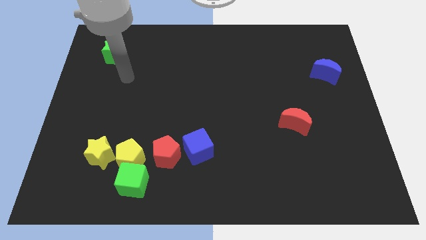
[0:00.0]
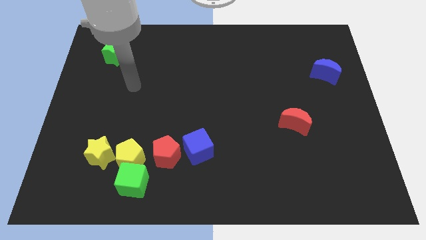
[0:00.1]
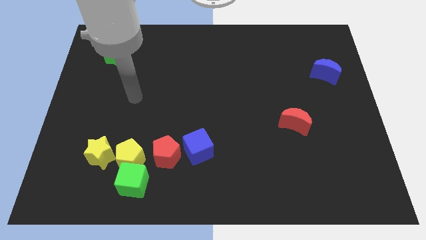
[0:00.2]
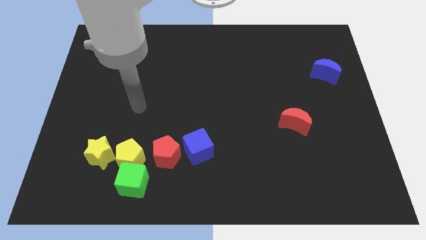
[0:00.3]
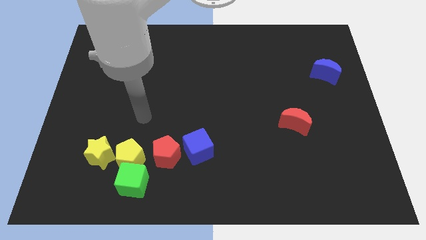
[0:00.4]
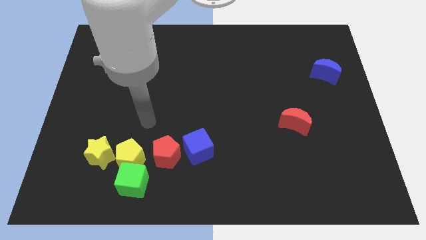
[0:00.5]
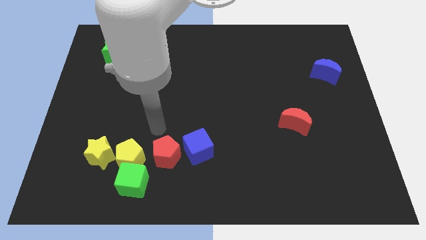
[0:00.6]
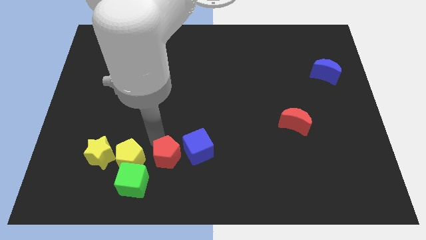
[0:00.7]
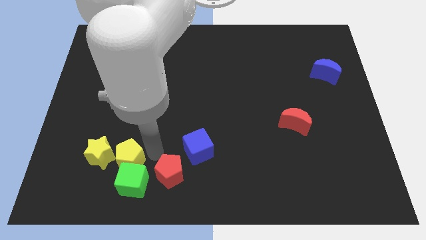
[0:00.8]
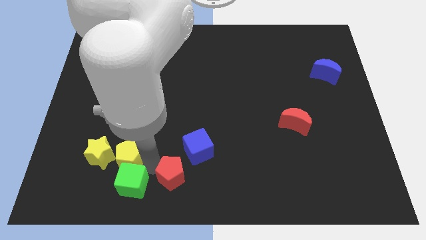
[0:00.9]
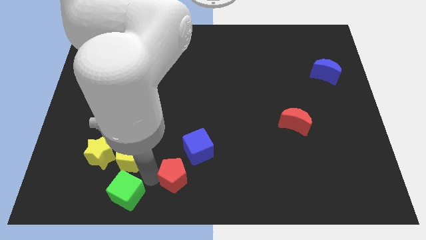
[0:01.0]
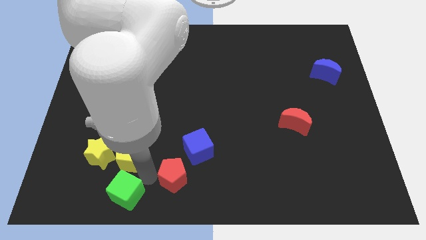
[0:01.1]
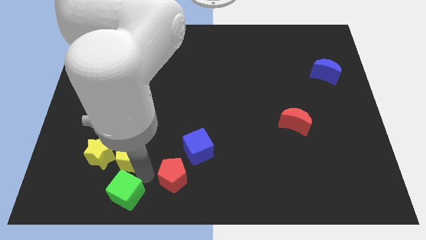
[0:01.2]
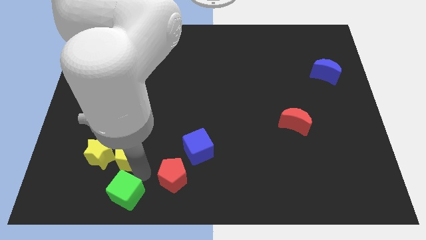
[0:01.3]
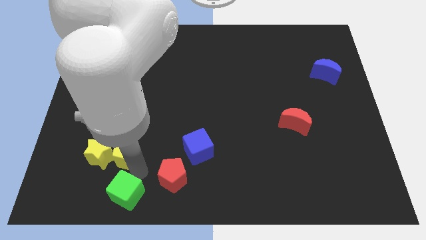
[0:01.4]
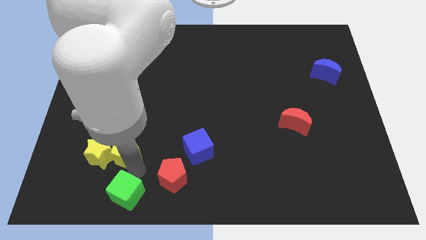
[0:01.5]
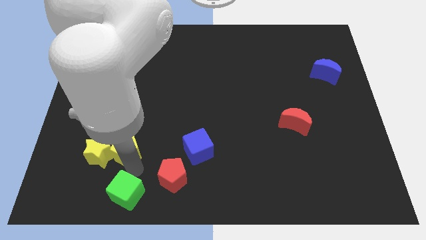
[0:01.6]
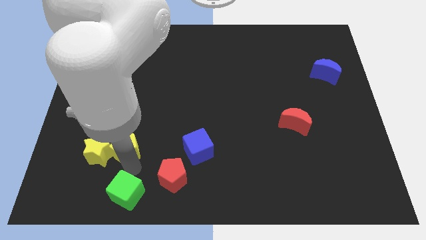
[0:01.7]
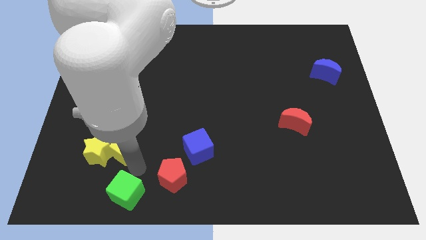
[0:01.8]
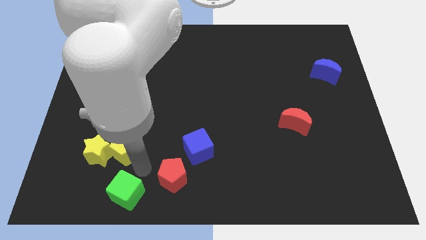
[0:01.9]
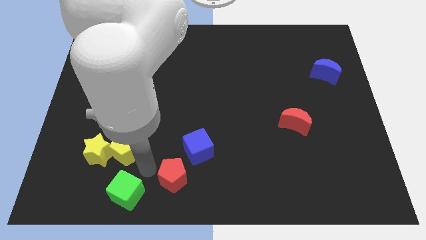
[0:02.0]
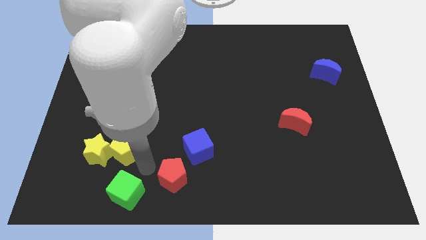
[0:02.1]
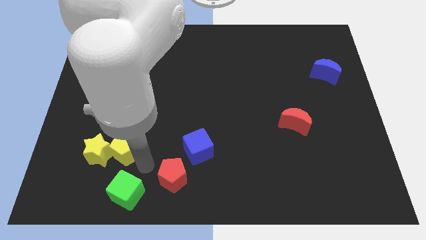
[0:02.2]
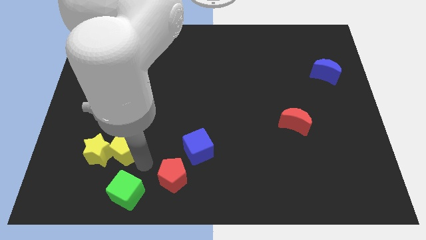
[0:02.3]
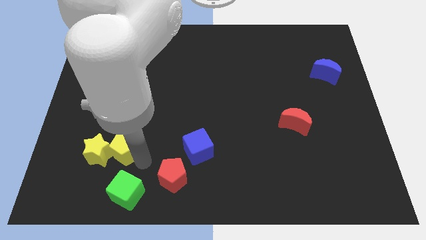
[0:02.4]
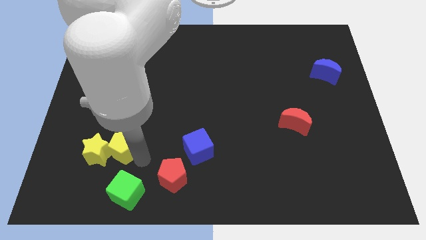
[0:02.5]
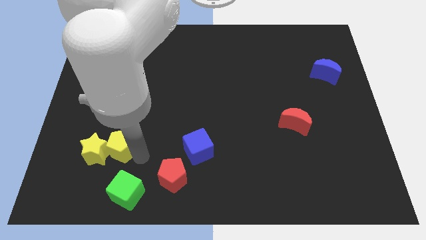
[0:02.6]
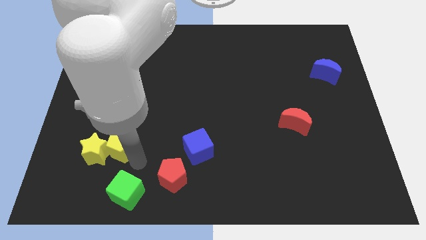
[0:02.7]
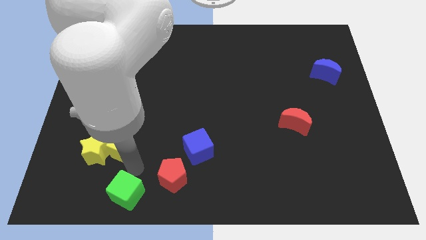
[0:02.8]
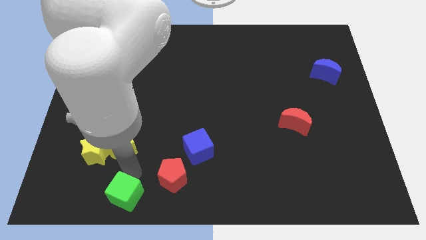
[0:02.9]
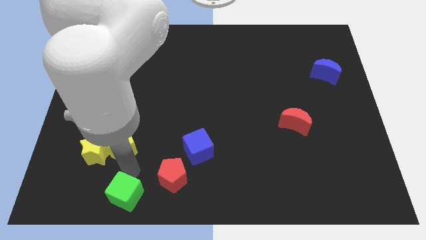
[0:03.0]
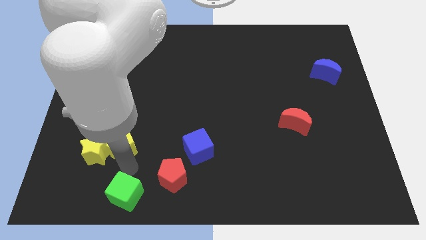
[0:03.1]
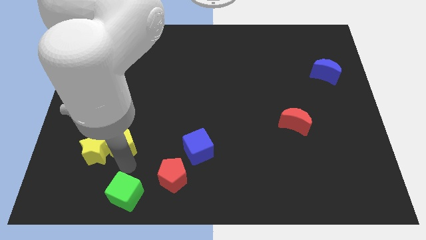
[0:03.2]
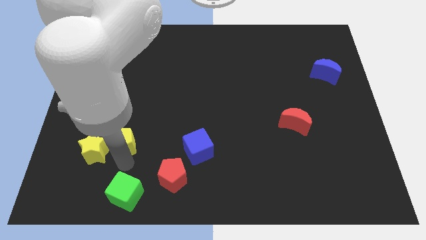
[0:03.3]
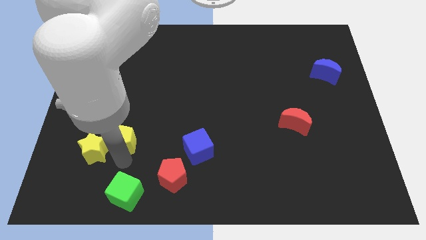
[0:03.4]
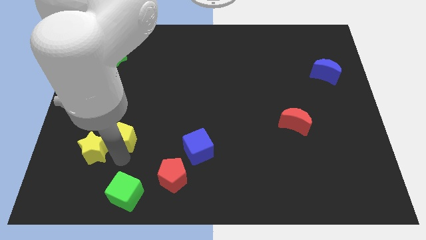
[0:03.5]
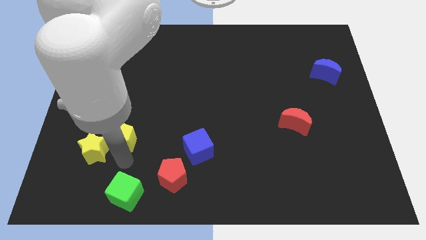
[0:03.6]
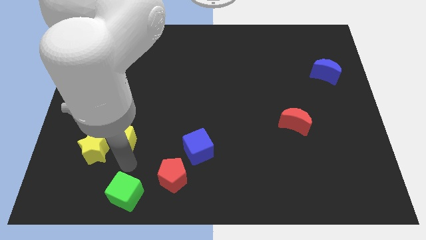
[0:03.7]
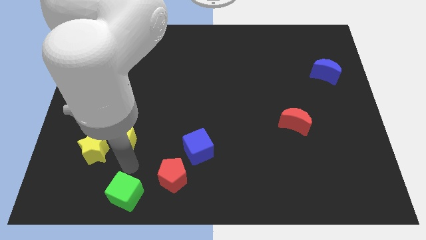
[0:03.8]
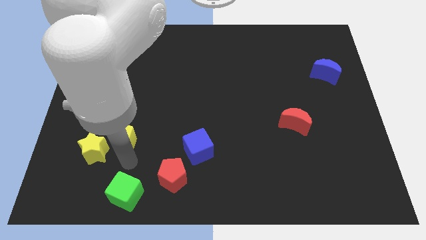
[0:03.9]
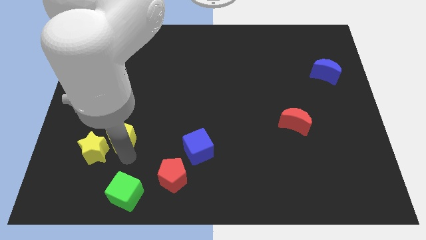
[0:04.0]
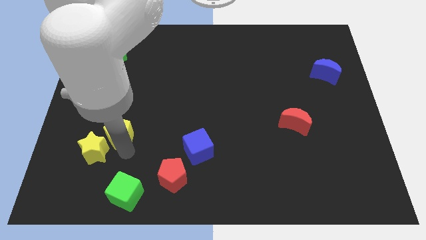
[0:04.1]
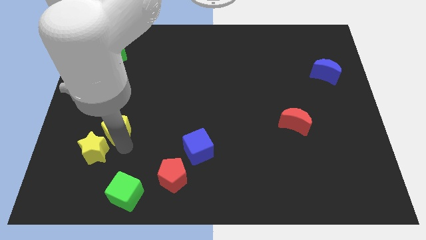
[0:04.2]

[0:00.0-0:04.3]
move the yellow pentagon away from the green cube, yellow star, and red pentagon

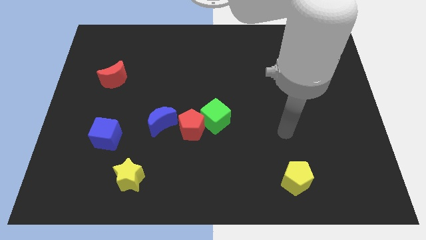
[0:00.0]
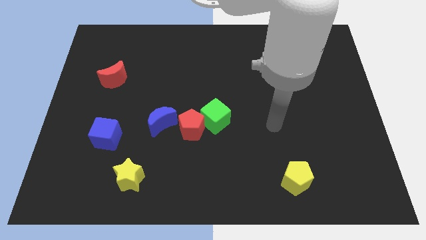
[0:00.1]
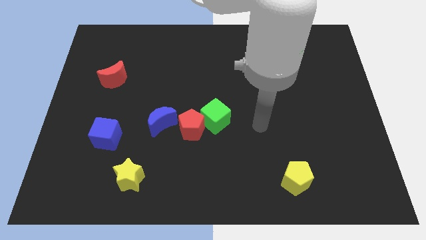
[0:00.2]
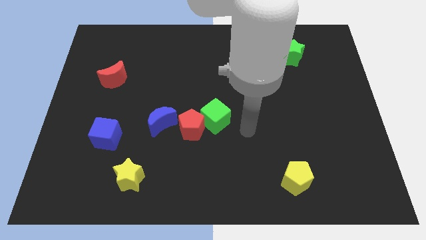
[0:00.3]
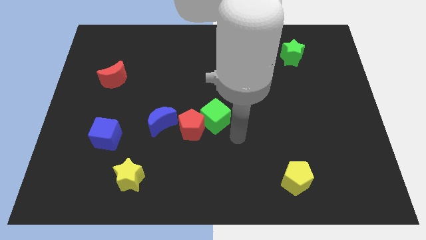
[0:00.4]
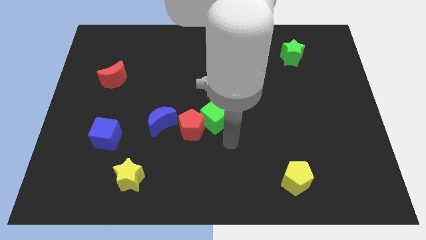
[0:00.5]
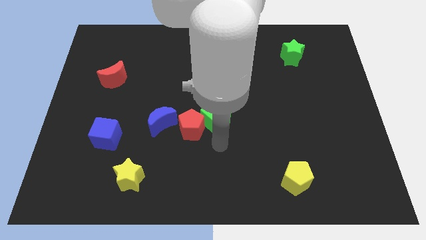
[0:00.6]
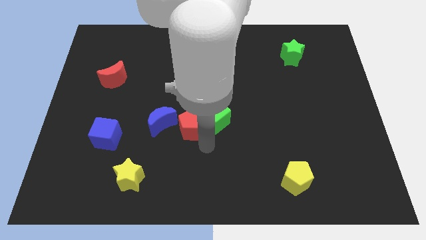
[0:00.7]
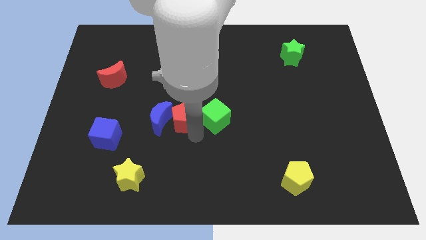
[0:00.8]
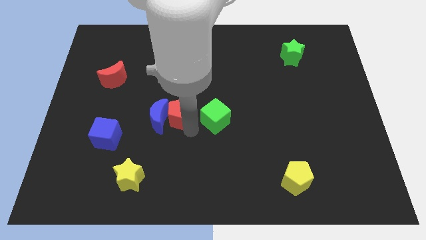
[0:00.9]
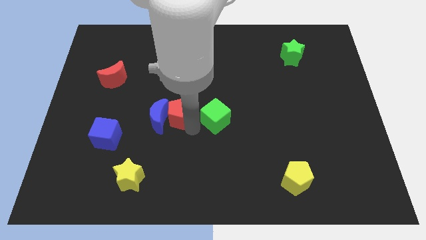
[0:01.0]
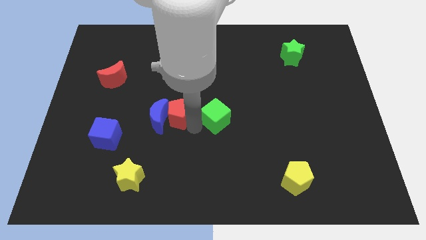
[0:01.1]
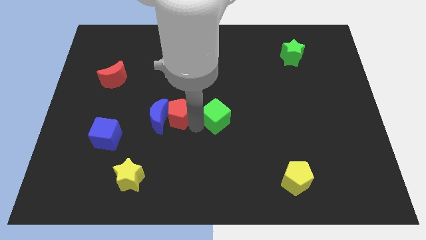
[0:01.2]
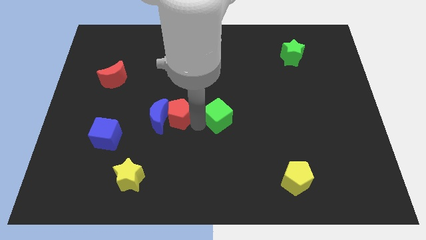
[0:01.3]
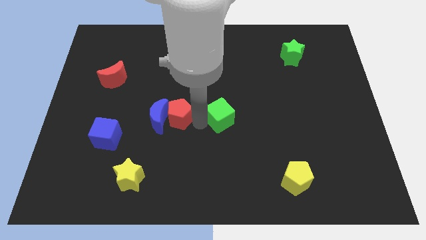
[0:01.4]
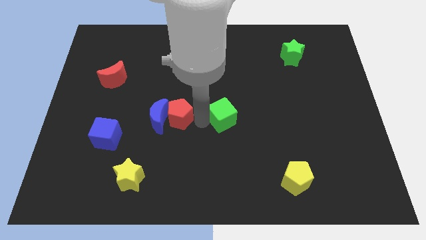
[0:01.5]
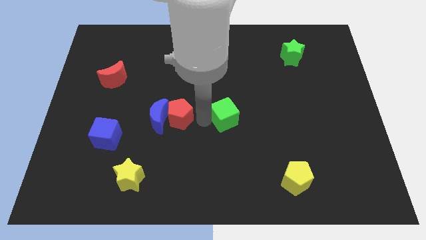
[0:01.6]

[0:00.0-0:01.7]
move the green cube away from the red pentagon

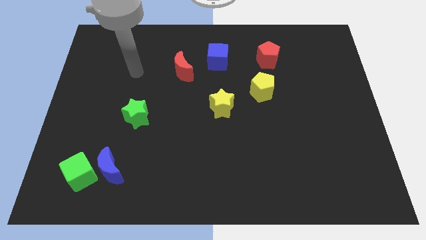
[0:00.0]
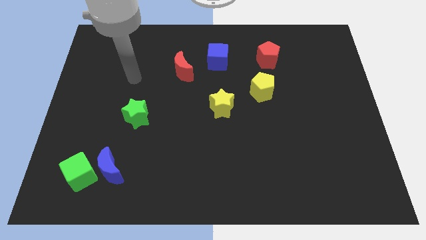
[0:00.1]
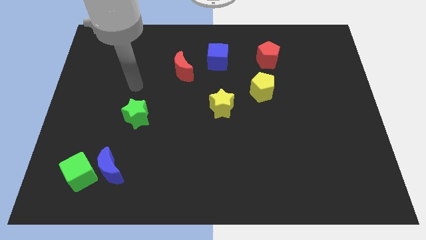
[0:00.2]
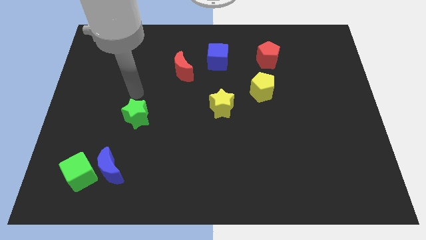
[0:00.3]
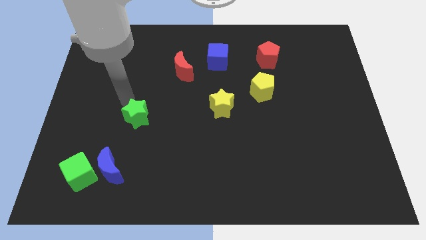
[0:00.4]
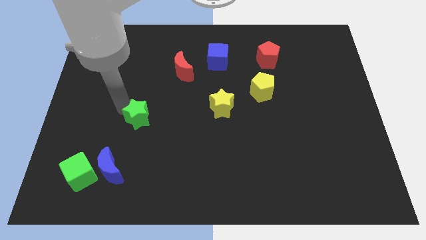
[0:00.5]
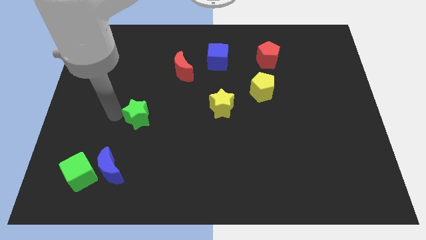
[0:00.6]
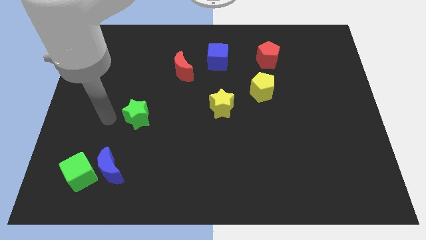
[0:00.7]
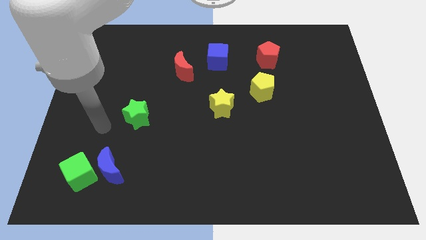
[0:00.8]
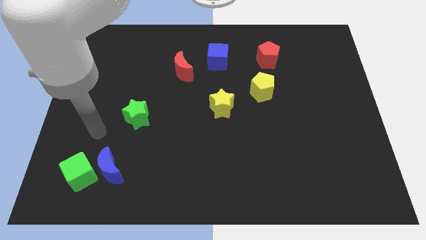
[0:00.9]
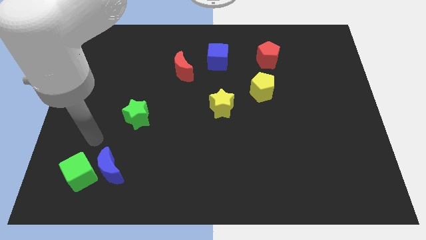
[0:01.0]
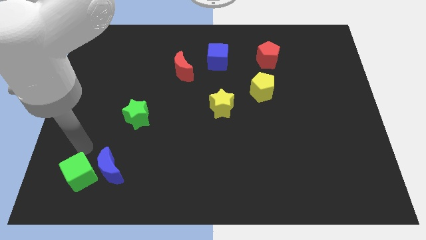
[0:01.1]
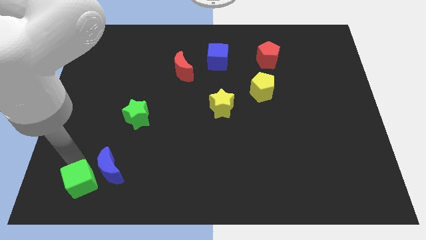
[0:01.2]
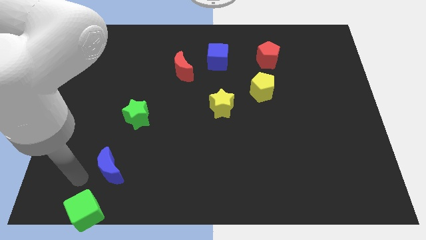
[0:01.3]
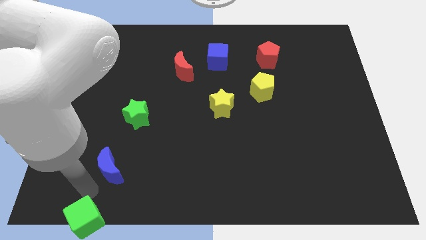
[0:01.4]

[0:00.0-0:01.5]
separate the blue moon from the green cube

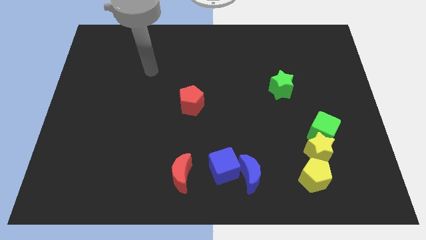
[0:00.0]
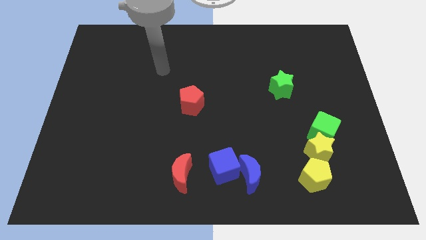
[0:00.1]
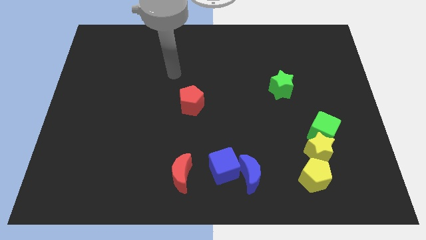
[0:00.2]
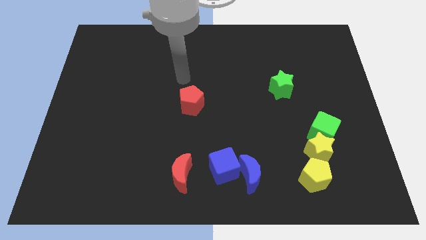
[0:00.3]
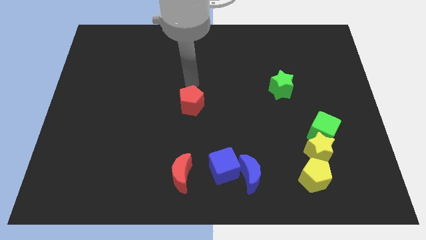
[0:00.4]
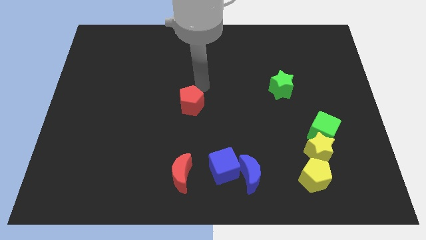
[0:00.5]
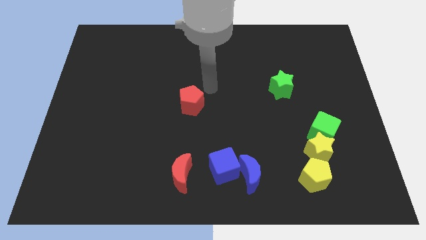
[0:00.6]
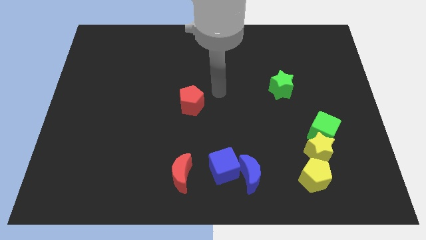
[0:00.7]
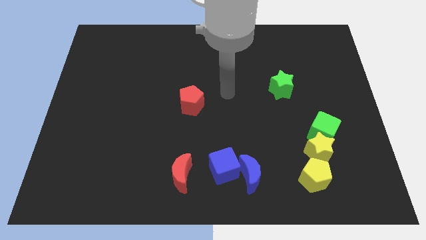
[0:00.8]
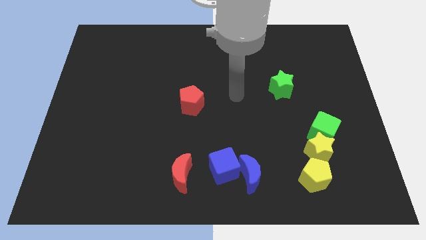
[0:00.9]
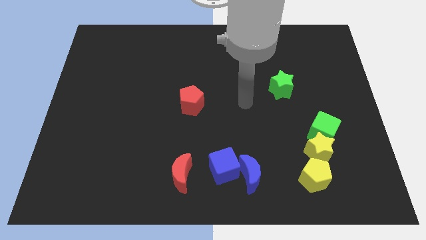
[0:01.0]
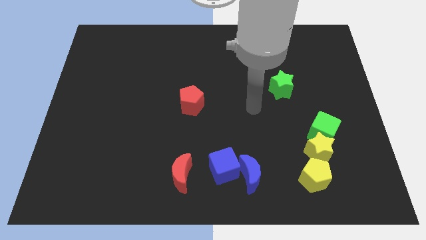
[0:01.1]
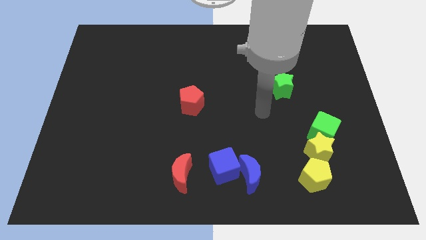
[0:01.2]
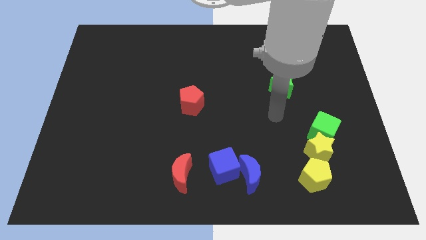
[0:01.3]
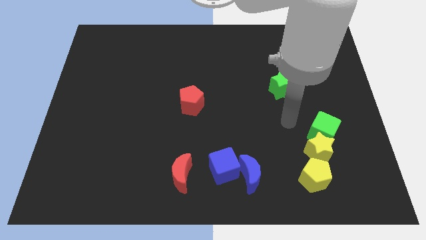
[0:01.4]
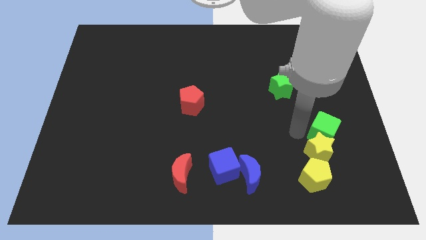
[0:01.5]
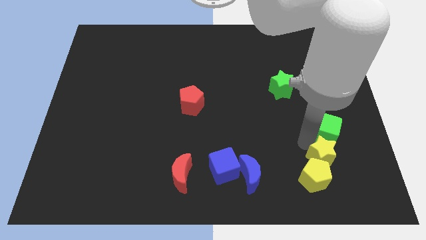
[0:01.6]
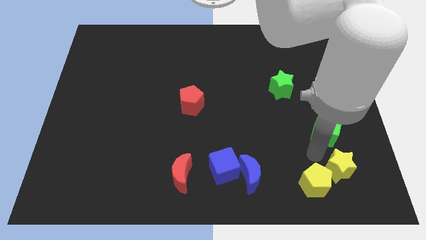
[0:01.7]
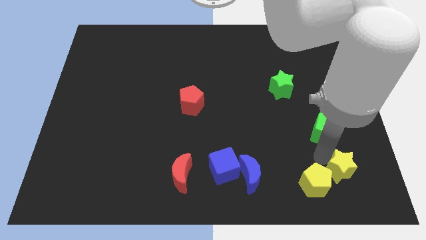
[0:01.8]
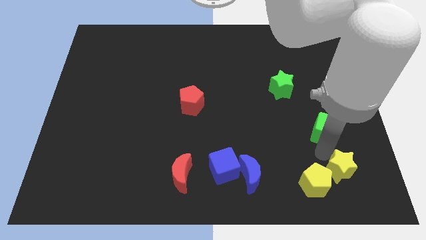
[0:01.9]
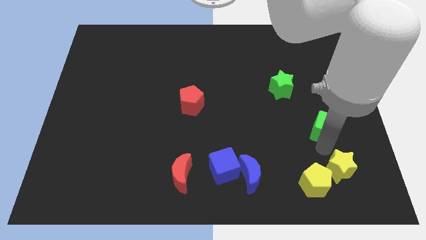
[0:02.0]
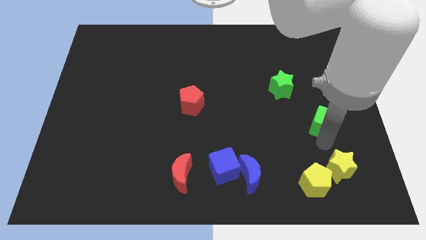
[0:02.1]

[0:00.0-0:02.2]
pull the green cube apart from the yellow star
